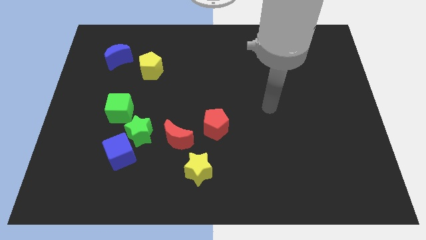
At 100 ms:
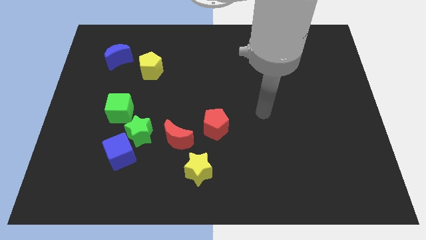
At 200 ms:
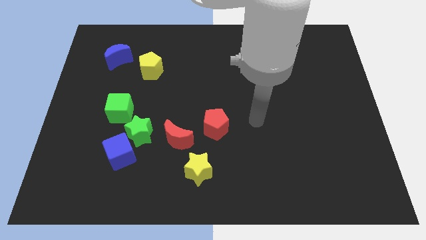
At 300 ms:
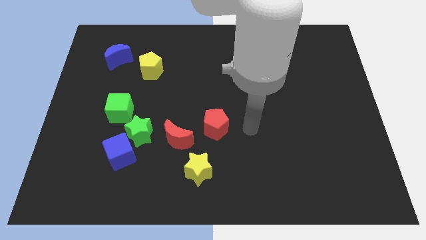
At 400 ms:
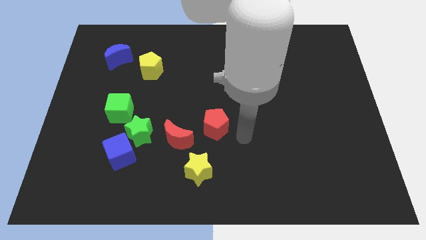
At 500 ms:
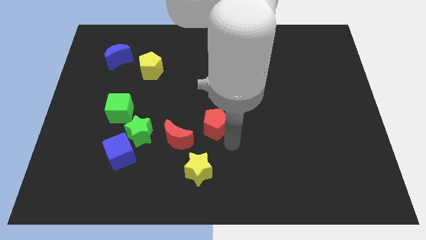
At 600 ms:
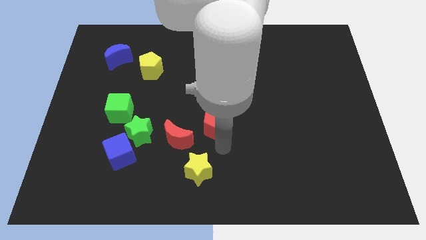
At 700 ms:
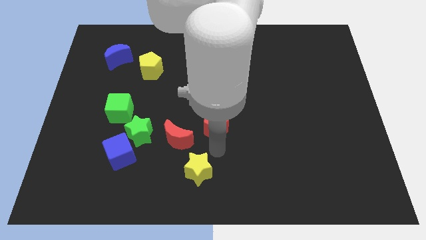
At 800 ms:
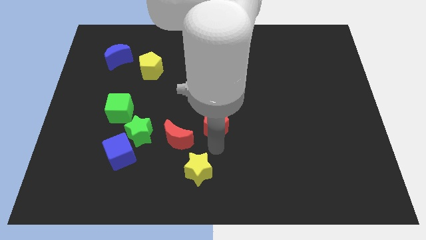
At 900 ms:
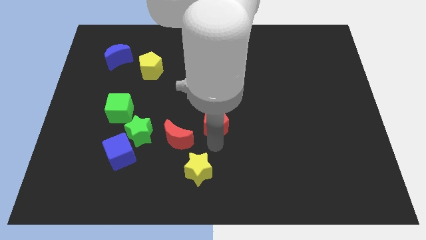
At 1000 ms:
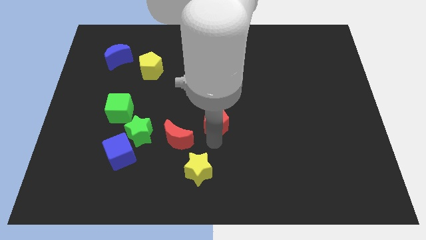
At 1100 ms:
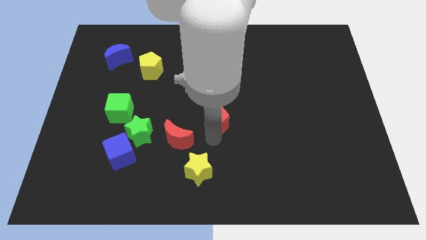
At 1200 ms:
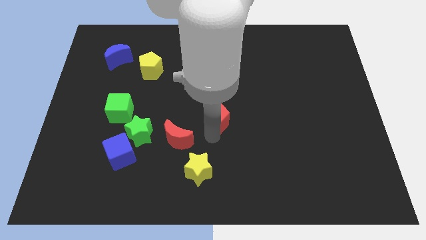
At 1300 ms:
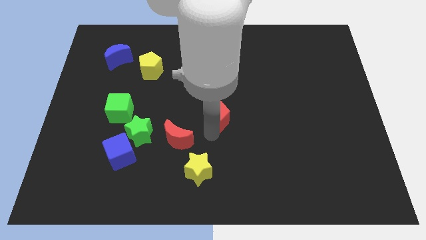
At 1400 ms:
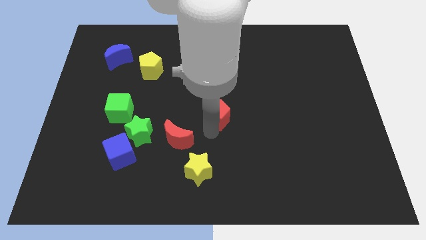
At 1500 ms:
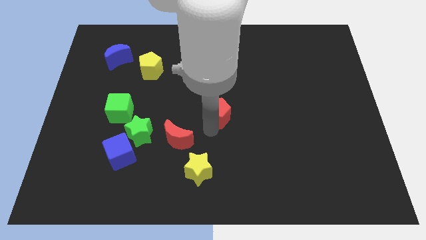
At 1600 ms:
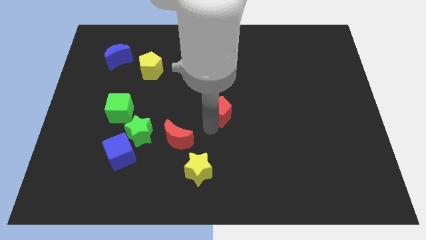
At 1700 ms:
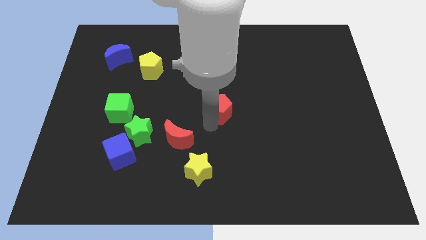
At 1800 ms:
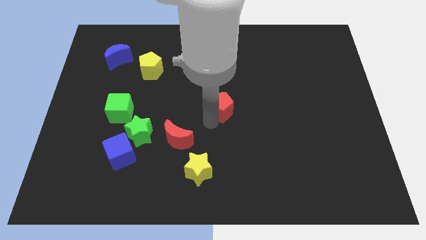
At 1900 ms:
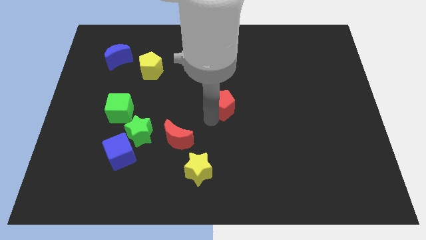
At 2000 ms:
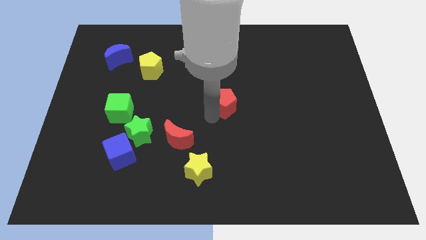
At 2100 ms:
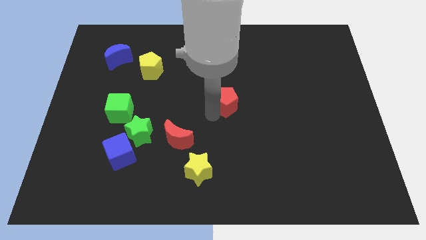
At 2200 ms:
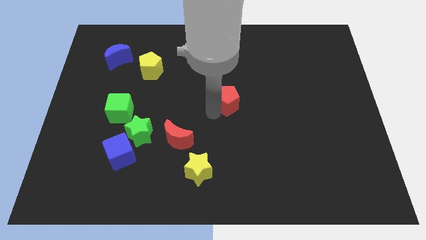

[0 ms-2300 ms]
push the red pentagon up a little bit

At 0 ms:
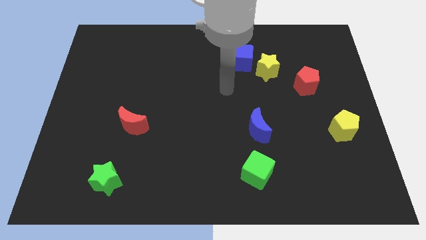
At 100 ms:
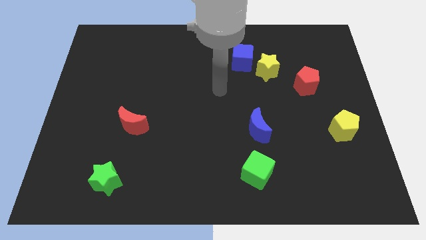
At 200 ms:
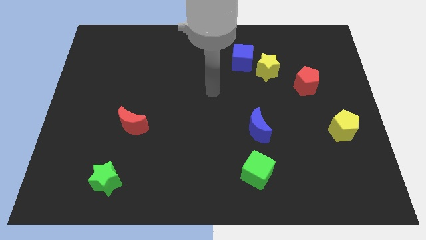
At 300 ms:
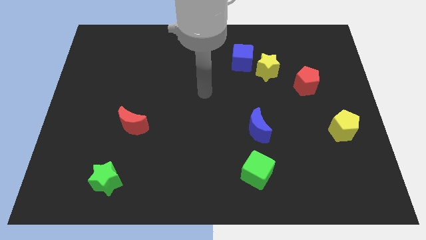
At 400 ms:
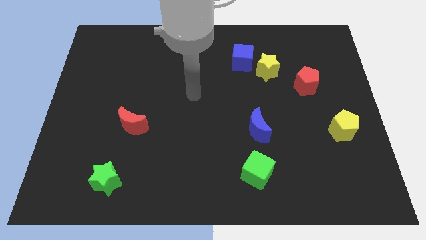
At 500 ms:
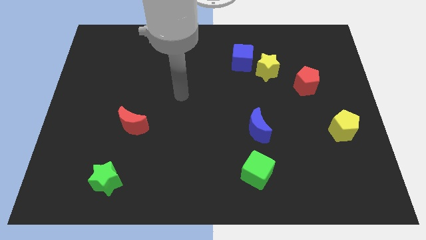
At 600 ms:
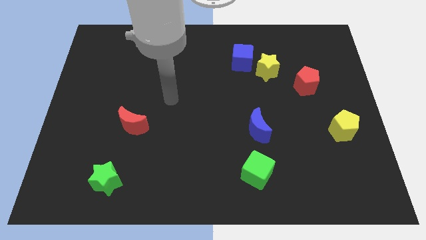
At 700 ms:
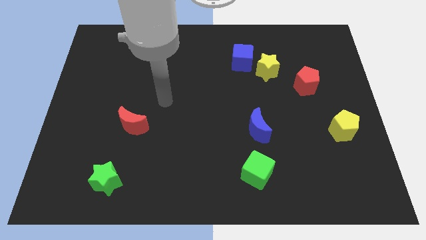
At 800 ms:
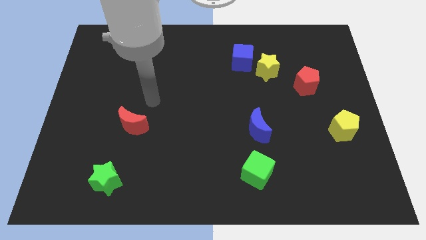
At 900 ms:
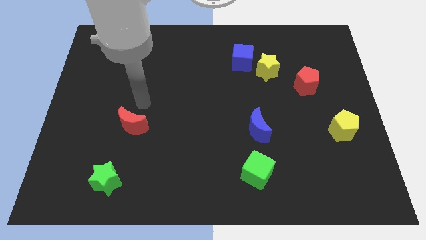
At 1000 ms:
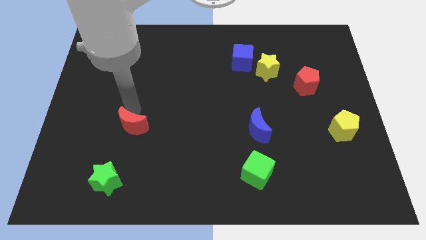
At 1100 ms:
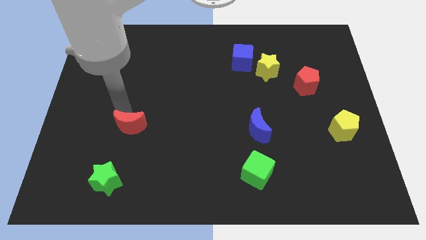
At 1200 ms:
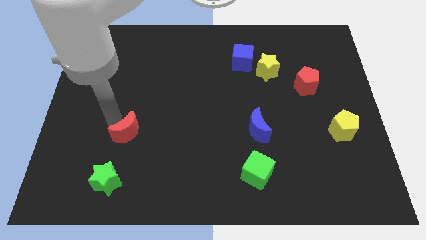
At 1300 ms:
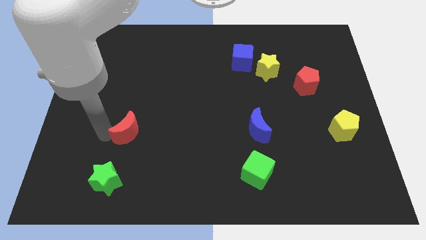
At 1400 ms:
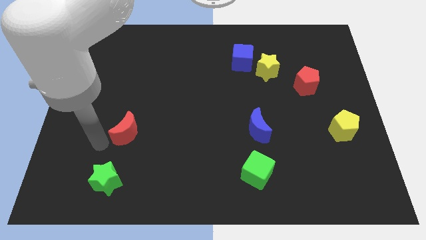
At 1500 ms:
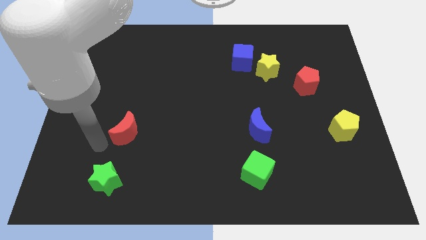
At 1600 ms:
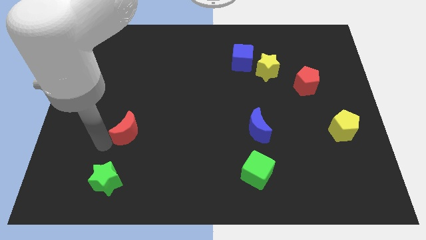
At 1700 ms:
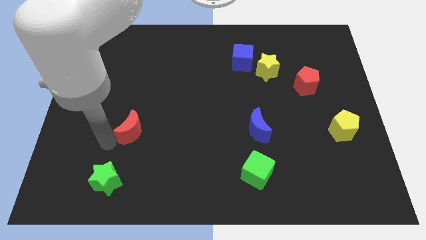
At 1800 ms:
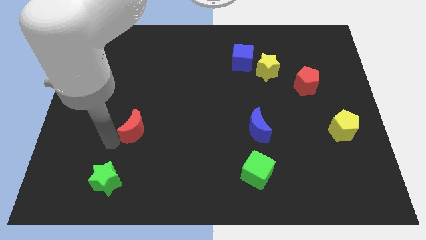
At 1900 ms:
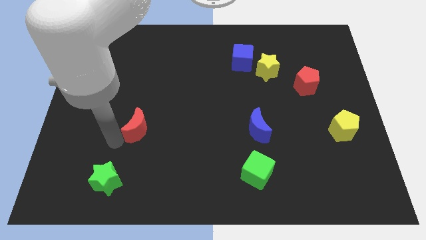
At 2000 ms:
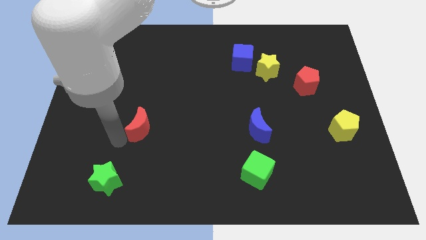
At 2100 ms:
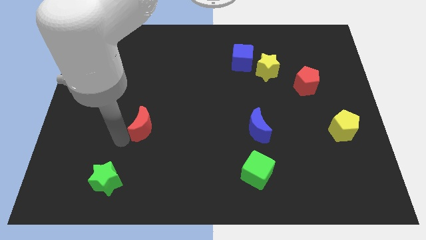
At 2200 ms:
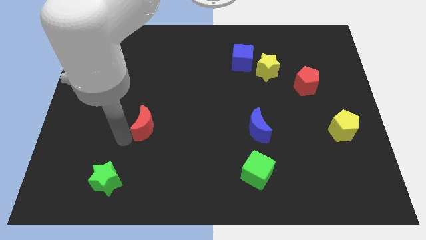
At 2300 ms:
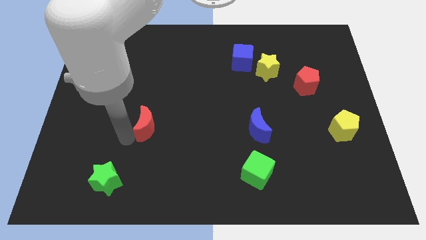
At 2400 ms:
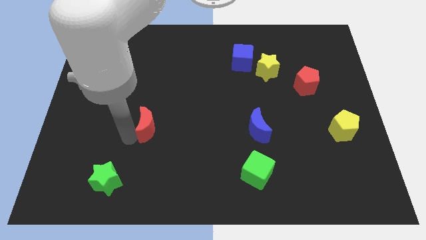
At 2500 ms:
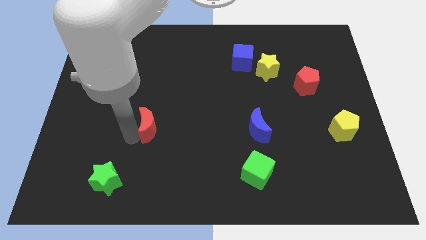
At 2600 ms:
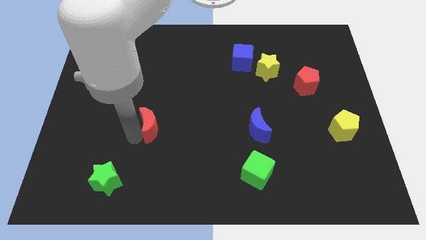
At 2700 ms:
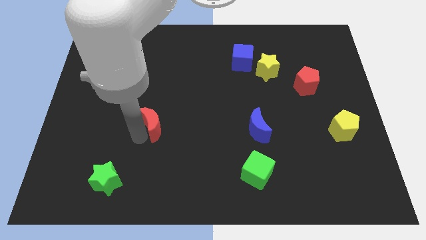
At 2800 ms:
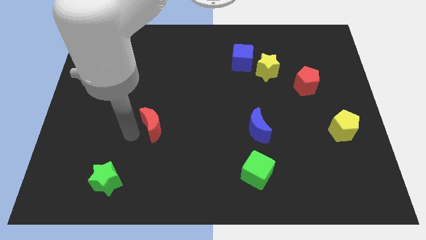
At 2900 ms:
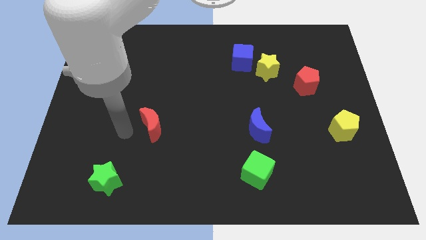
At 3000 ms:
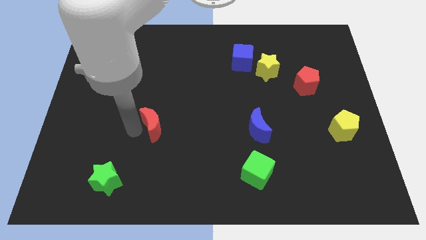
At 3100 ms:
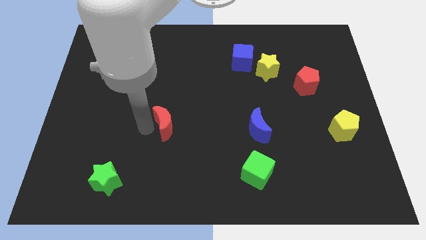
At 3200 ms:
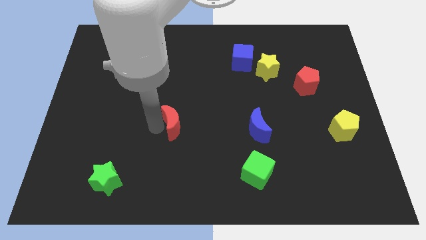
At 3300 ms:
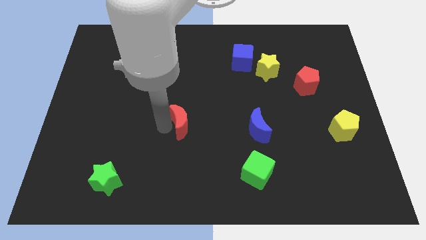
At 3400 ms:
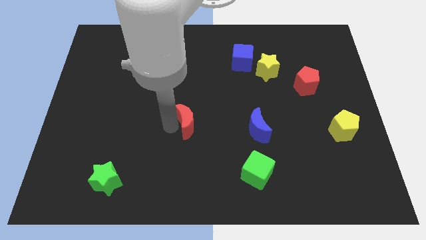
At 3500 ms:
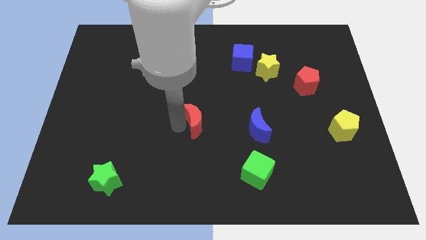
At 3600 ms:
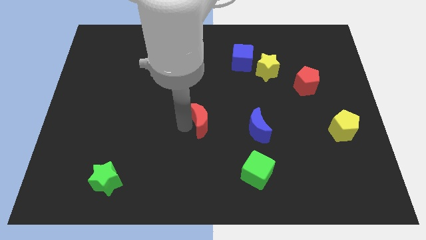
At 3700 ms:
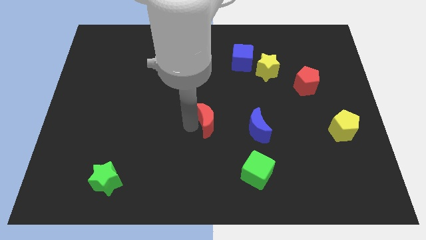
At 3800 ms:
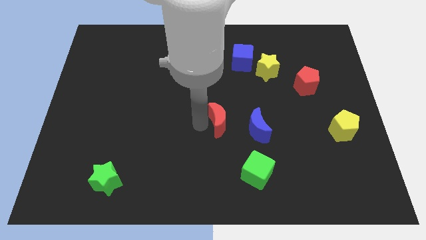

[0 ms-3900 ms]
slide the red moon to the right

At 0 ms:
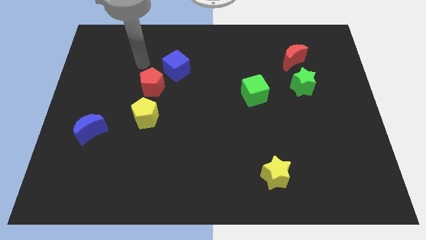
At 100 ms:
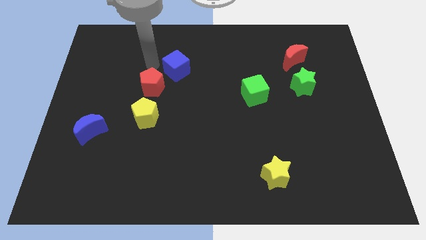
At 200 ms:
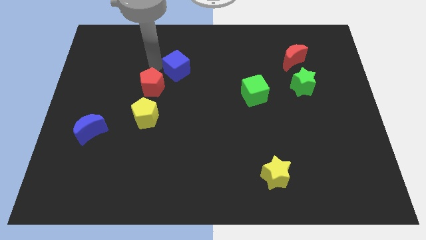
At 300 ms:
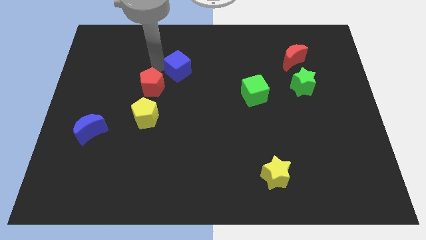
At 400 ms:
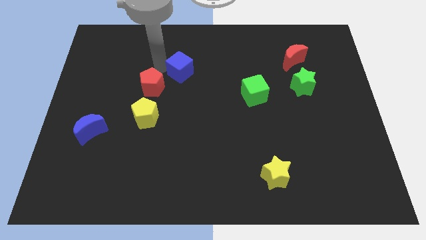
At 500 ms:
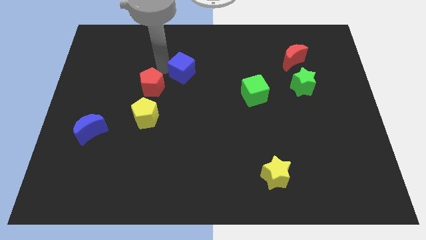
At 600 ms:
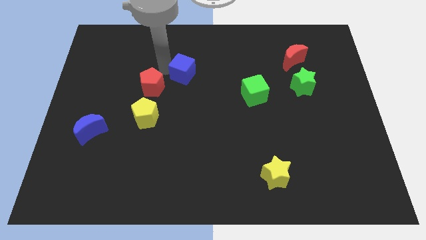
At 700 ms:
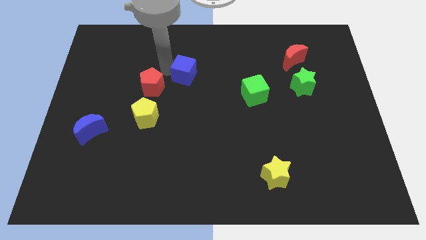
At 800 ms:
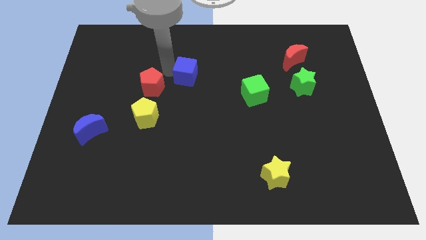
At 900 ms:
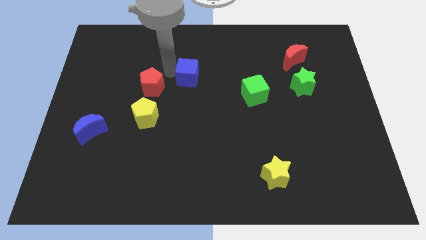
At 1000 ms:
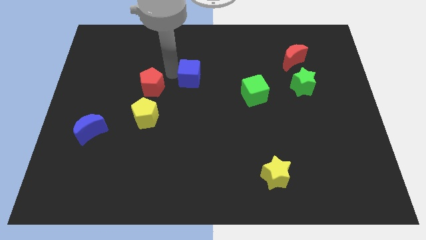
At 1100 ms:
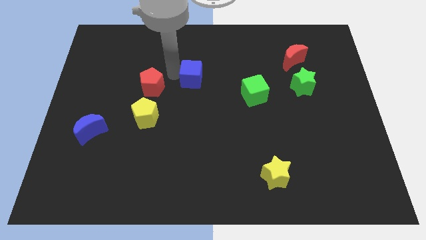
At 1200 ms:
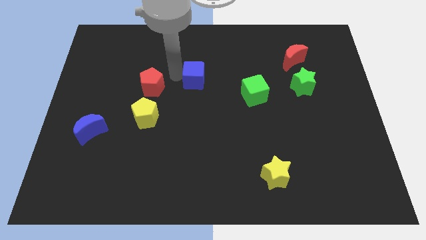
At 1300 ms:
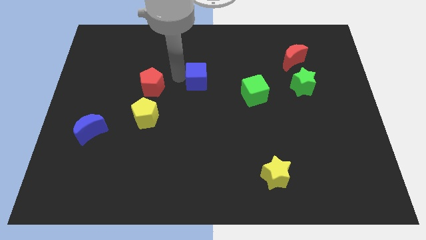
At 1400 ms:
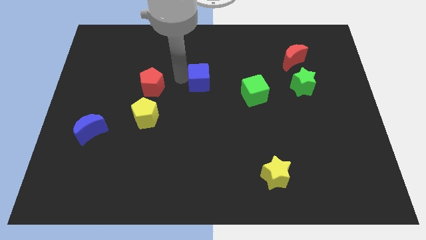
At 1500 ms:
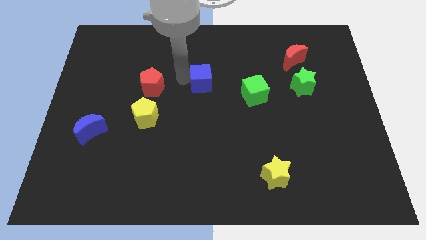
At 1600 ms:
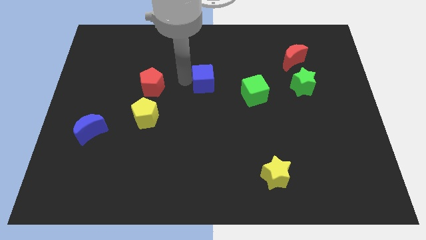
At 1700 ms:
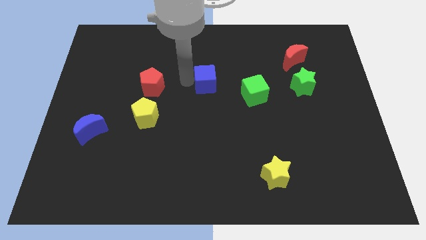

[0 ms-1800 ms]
slightly push the blue cube to the right

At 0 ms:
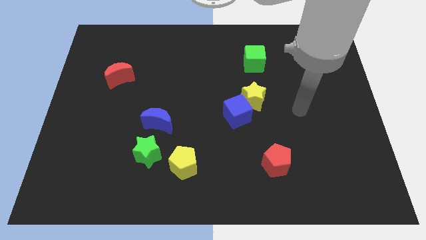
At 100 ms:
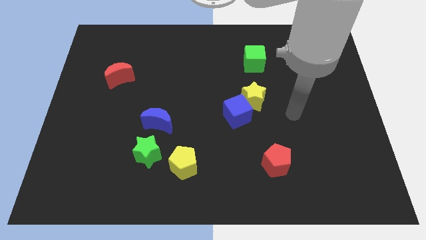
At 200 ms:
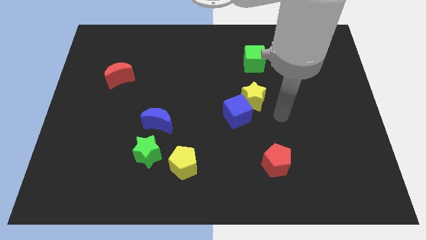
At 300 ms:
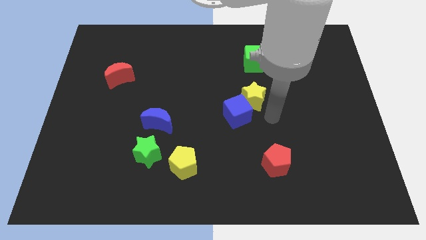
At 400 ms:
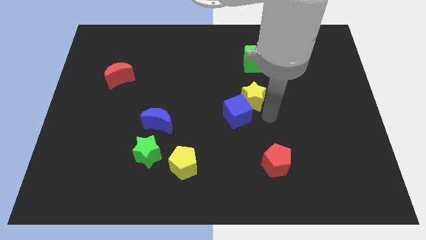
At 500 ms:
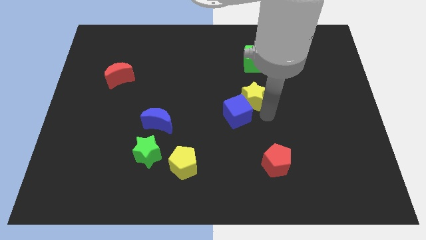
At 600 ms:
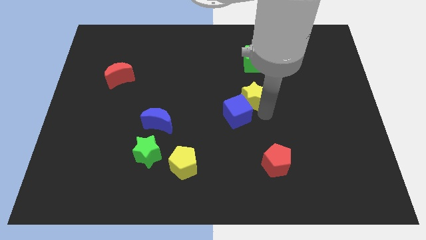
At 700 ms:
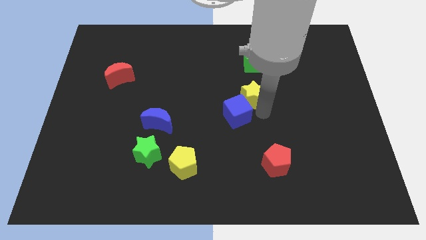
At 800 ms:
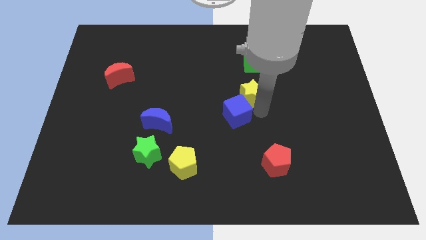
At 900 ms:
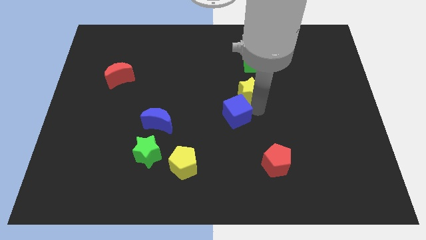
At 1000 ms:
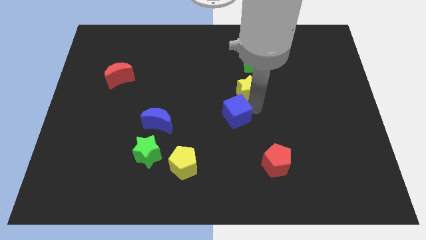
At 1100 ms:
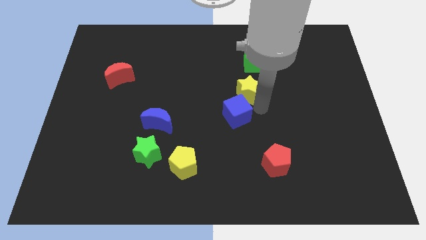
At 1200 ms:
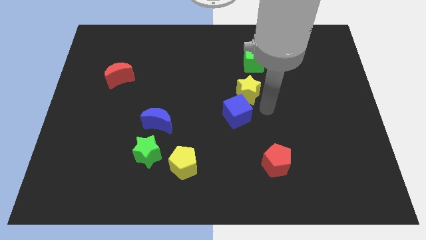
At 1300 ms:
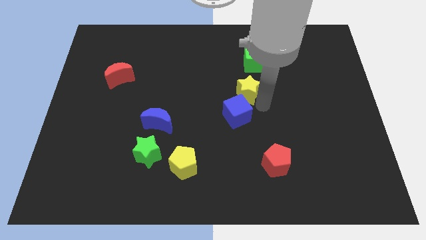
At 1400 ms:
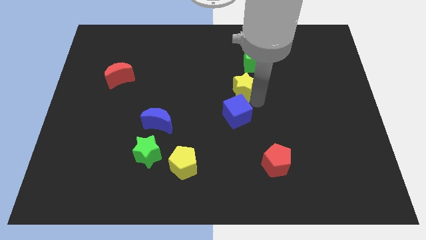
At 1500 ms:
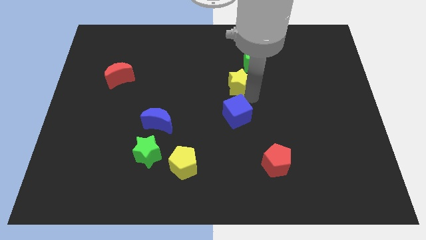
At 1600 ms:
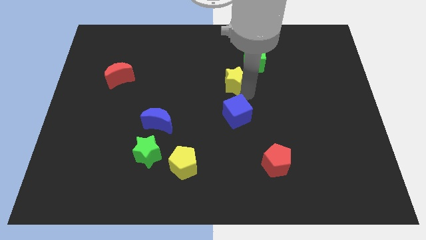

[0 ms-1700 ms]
slide the yellow star diagonally upwards and to the left a little bit
